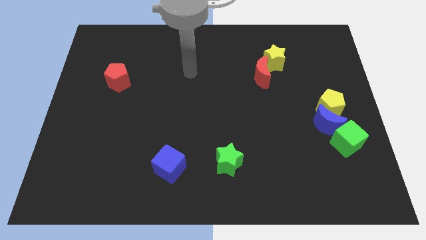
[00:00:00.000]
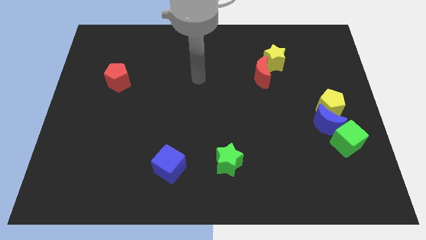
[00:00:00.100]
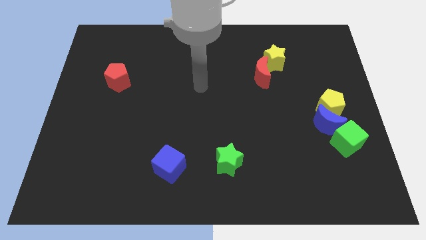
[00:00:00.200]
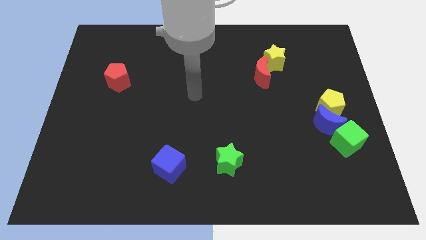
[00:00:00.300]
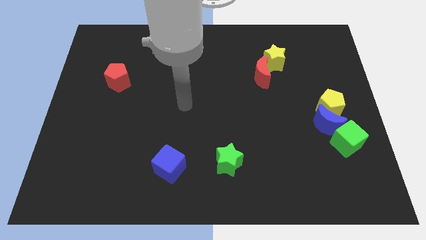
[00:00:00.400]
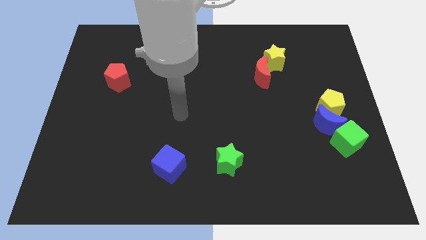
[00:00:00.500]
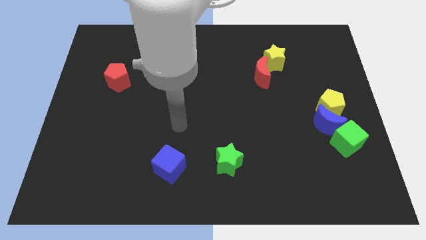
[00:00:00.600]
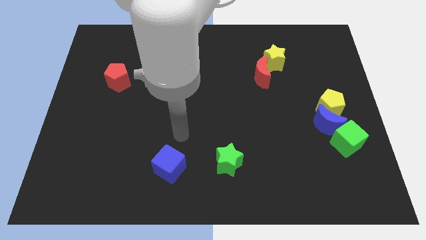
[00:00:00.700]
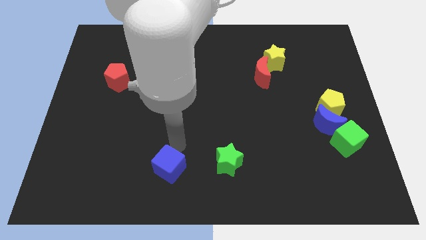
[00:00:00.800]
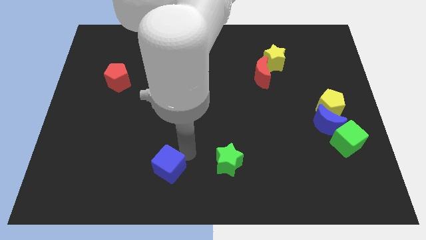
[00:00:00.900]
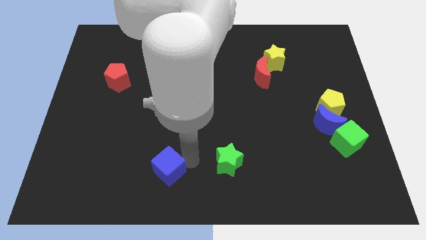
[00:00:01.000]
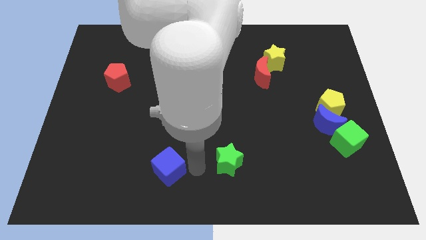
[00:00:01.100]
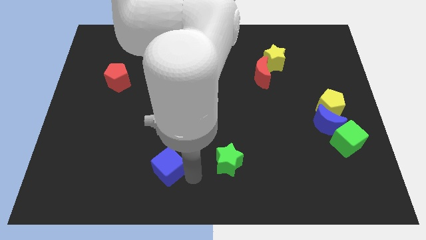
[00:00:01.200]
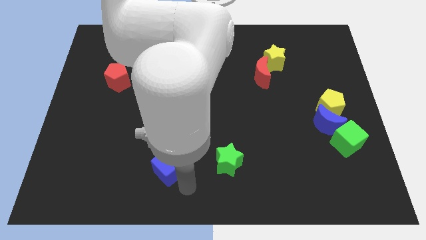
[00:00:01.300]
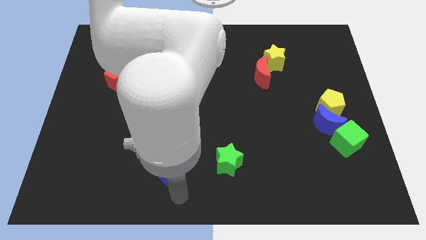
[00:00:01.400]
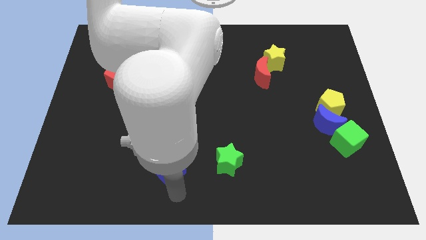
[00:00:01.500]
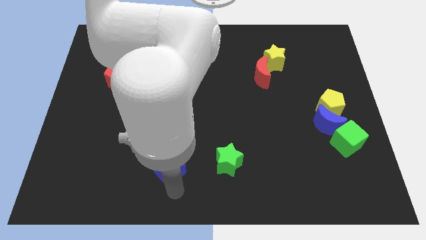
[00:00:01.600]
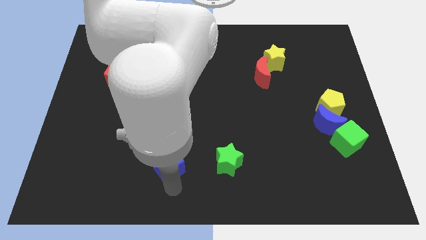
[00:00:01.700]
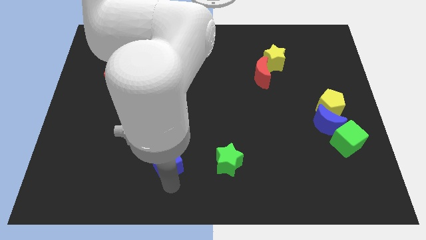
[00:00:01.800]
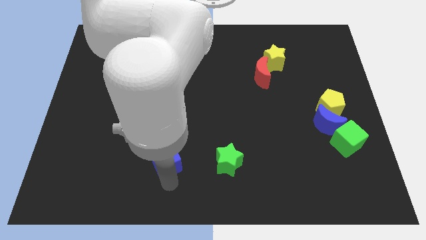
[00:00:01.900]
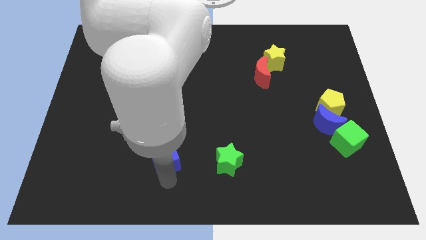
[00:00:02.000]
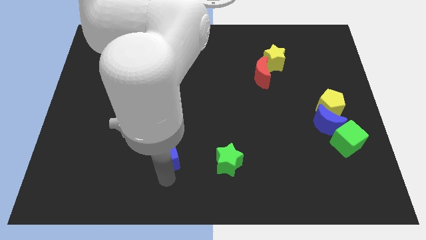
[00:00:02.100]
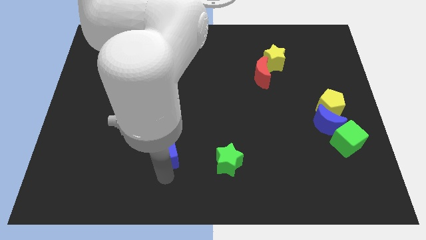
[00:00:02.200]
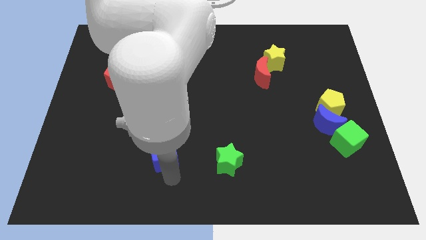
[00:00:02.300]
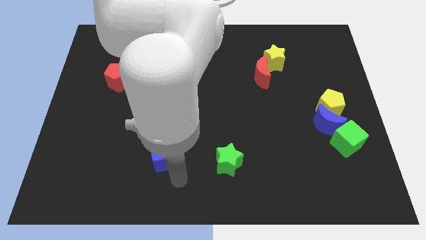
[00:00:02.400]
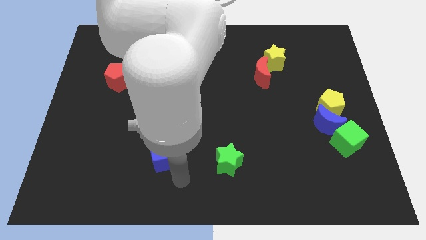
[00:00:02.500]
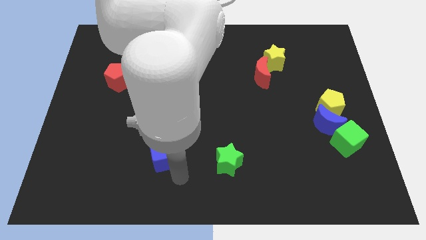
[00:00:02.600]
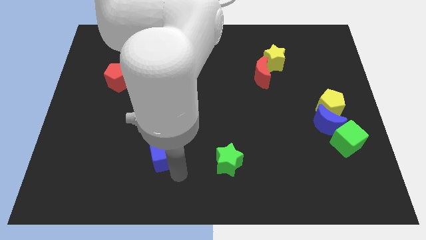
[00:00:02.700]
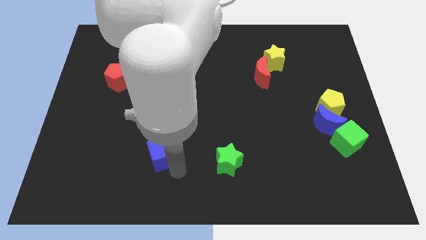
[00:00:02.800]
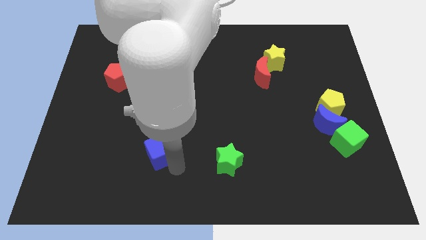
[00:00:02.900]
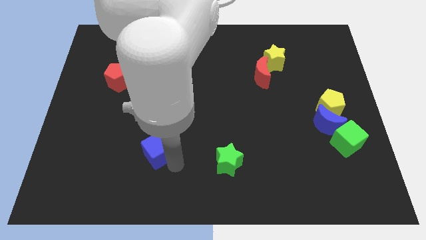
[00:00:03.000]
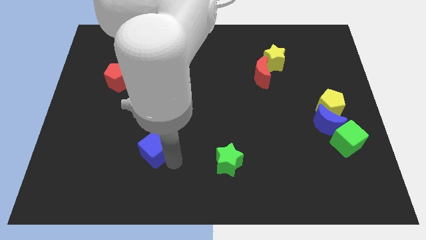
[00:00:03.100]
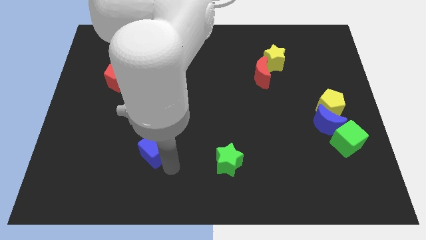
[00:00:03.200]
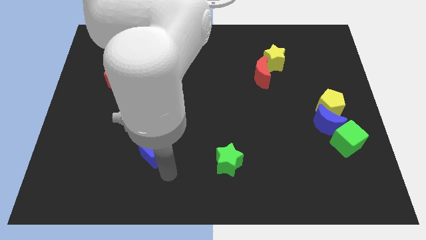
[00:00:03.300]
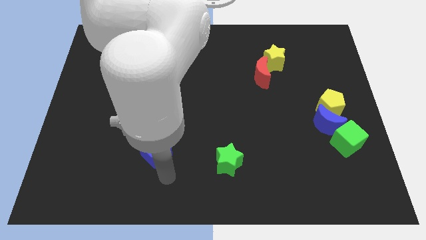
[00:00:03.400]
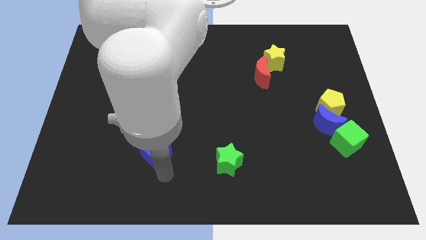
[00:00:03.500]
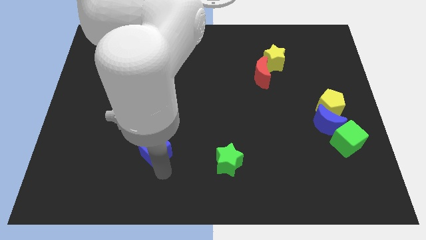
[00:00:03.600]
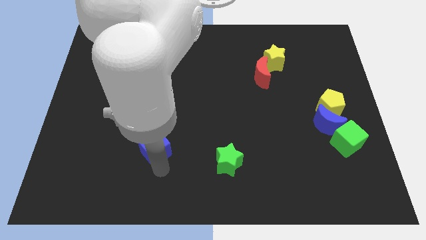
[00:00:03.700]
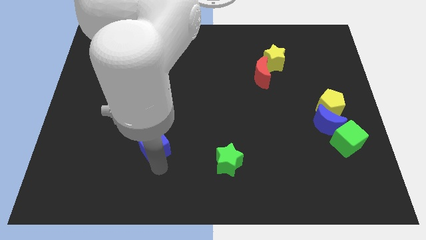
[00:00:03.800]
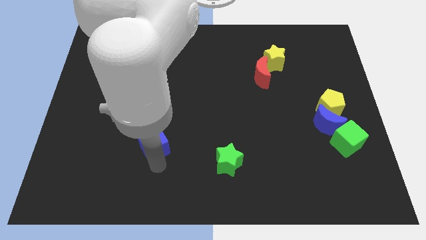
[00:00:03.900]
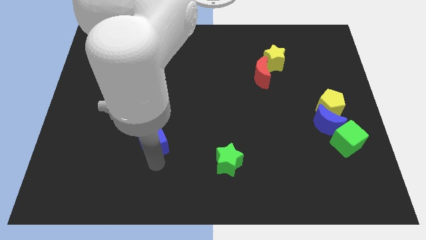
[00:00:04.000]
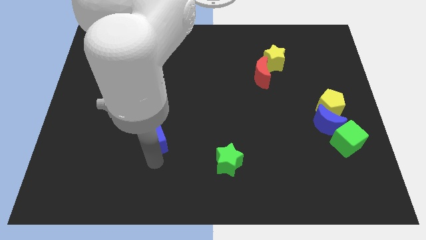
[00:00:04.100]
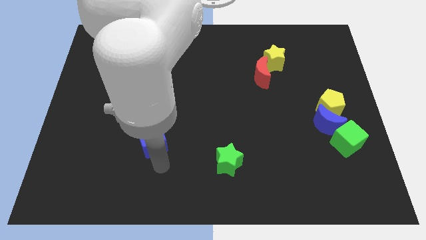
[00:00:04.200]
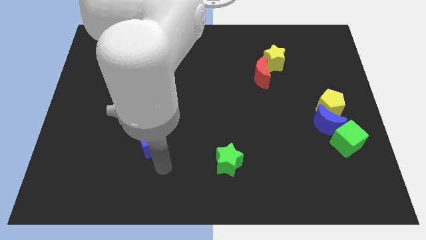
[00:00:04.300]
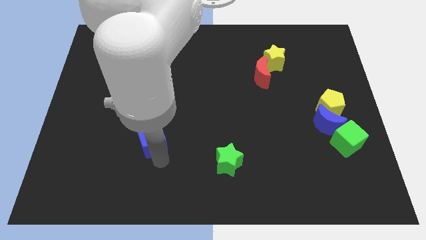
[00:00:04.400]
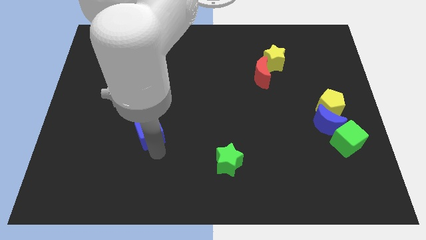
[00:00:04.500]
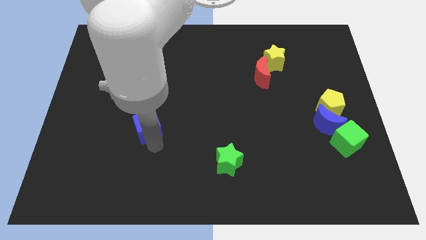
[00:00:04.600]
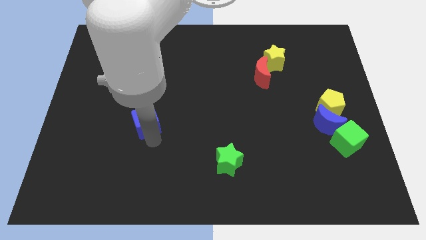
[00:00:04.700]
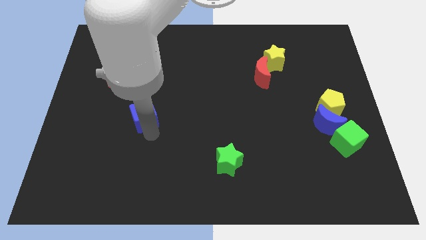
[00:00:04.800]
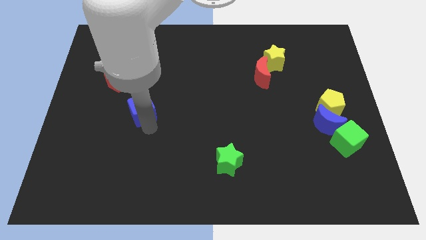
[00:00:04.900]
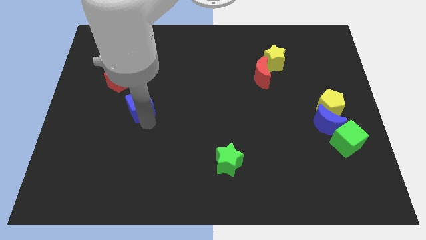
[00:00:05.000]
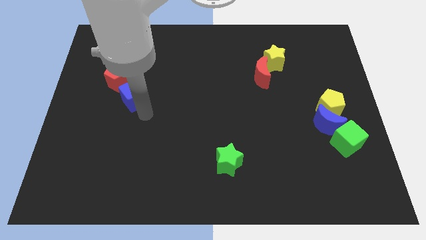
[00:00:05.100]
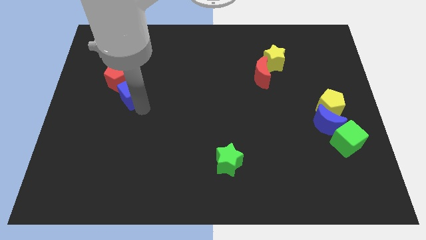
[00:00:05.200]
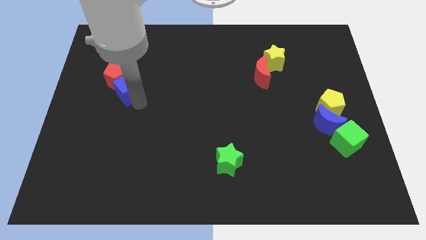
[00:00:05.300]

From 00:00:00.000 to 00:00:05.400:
put the blue cube towards the red pentagon

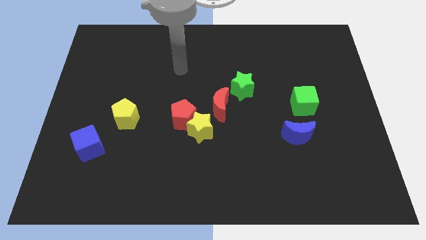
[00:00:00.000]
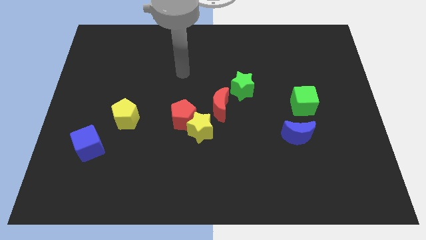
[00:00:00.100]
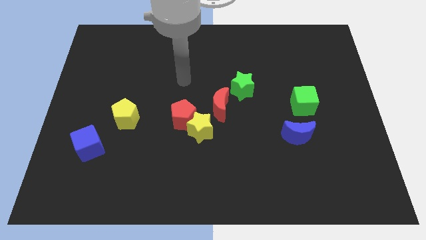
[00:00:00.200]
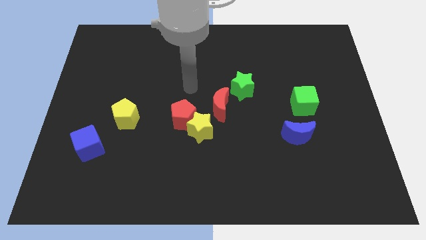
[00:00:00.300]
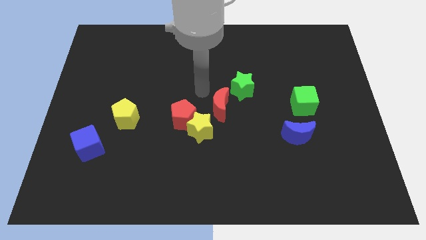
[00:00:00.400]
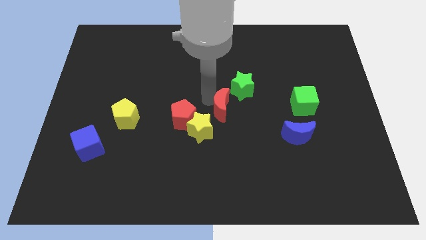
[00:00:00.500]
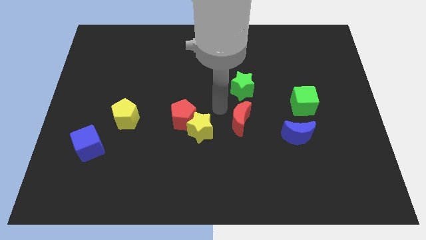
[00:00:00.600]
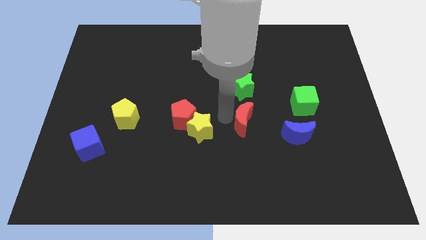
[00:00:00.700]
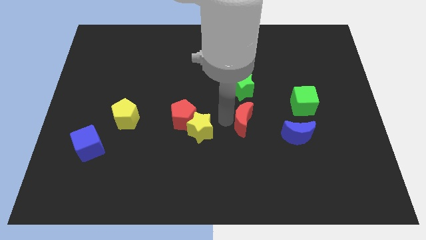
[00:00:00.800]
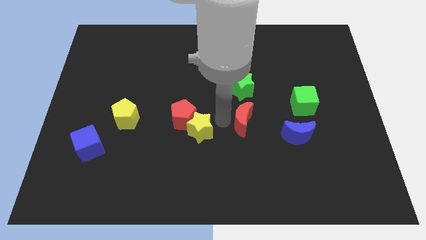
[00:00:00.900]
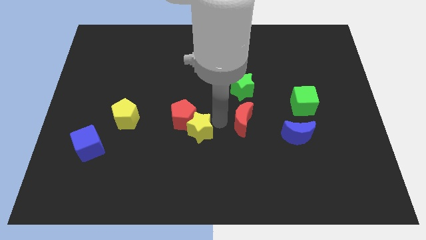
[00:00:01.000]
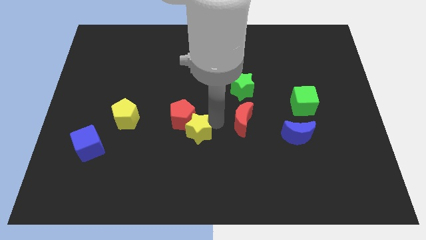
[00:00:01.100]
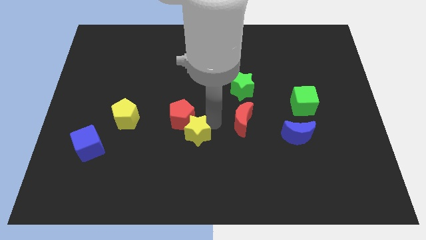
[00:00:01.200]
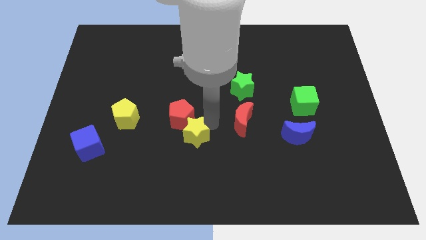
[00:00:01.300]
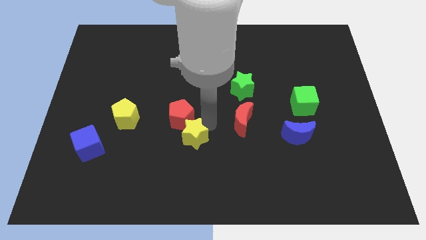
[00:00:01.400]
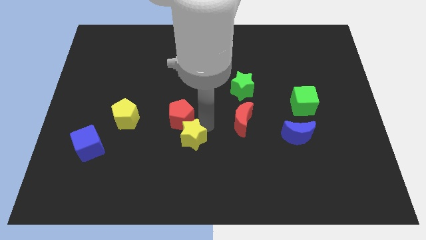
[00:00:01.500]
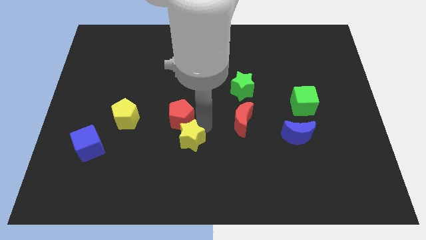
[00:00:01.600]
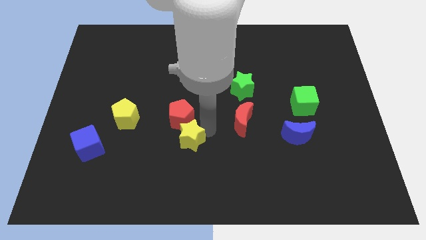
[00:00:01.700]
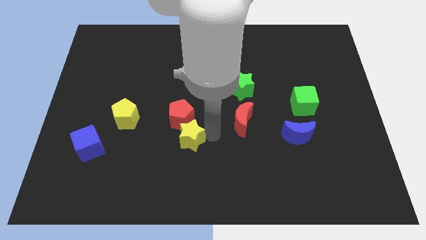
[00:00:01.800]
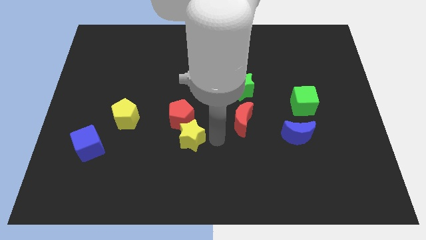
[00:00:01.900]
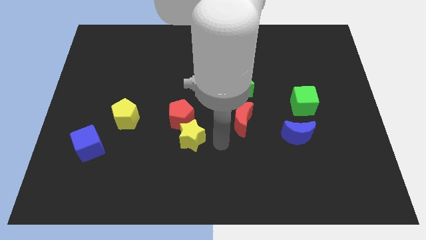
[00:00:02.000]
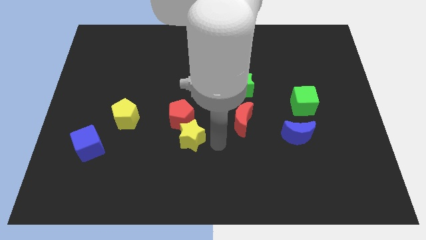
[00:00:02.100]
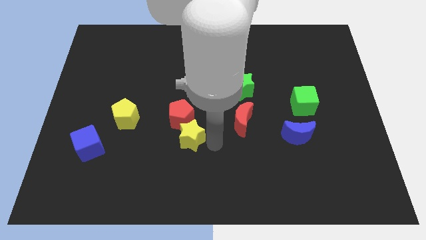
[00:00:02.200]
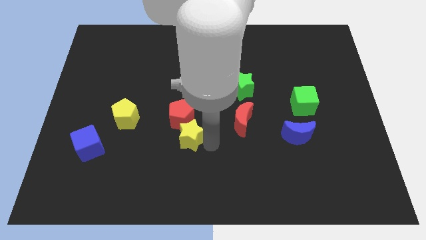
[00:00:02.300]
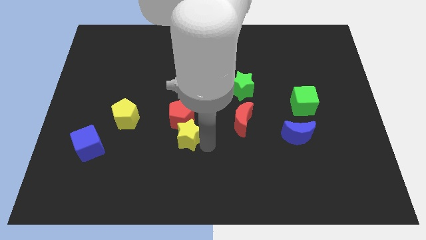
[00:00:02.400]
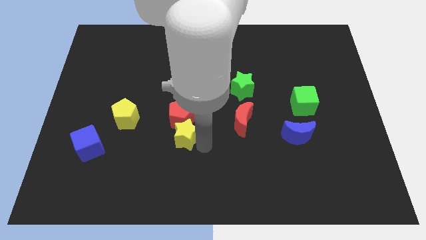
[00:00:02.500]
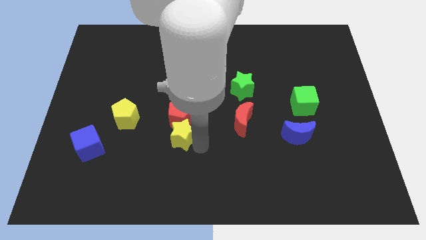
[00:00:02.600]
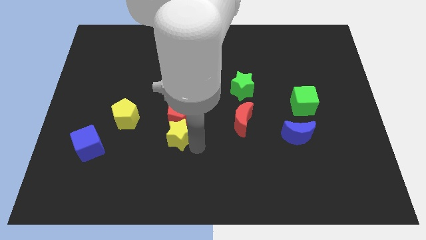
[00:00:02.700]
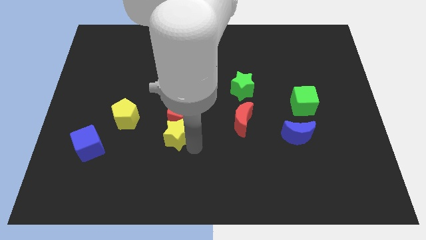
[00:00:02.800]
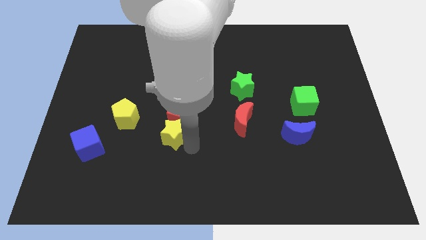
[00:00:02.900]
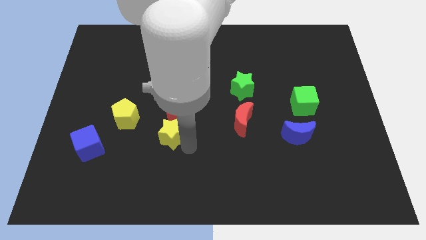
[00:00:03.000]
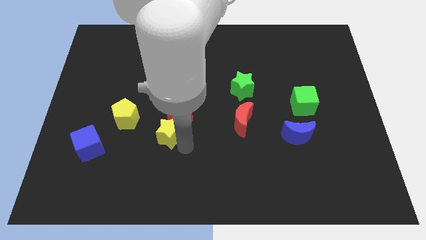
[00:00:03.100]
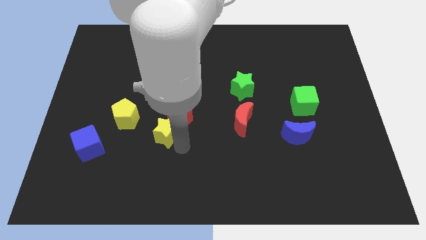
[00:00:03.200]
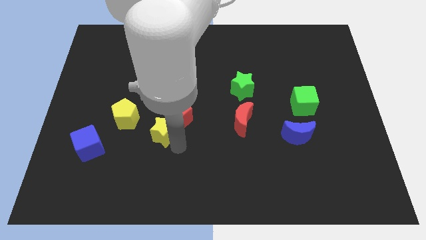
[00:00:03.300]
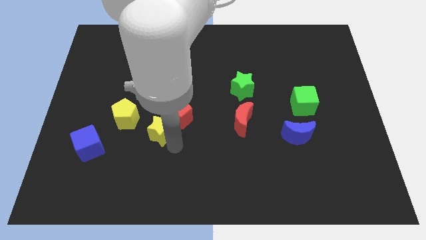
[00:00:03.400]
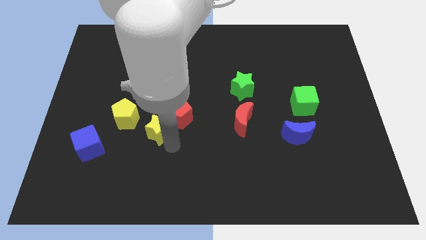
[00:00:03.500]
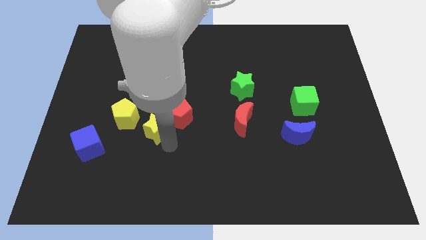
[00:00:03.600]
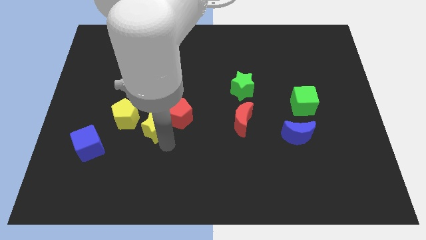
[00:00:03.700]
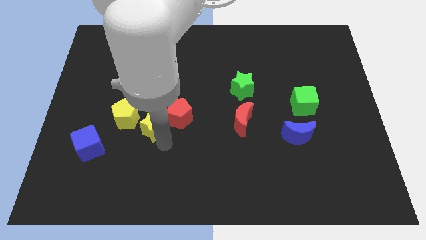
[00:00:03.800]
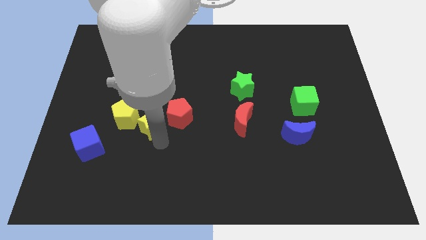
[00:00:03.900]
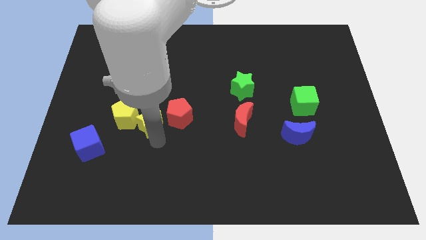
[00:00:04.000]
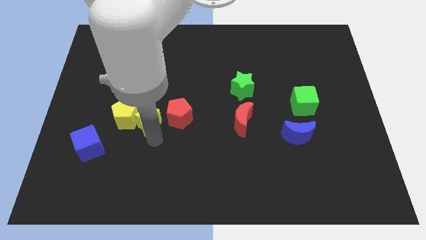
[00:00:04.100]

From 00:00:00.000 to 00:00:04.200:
slide the yellow star towards the yellow pentagon
